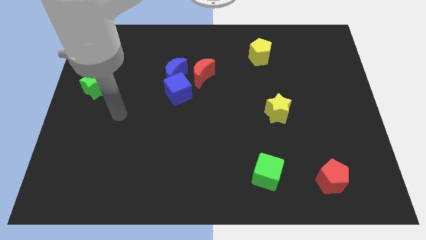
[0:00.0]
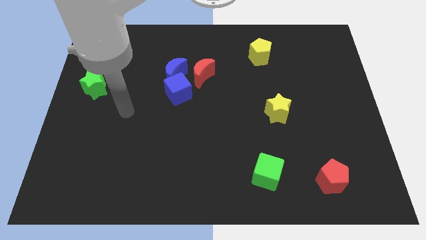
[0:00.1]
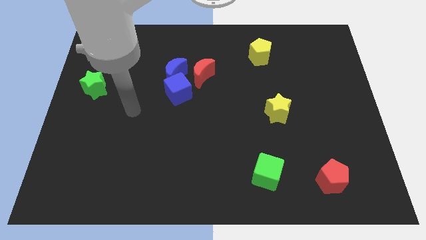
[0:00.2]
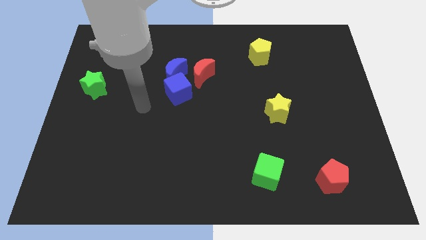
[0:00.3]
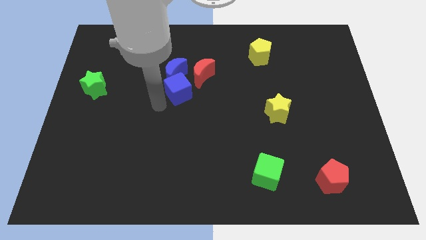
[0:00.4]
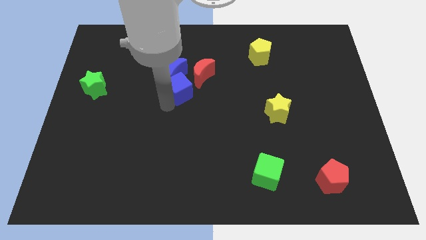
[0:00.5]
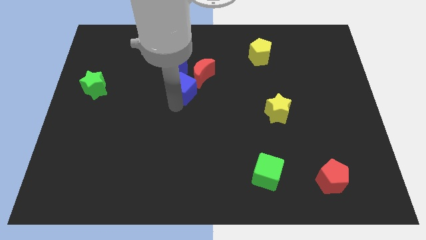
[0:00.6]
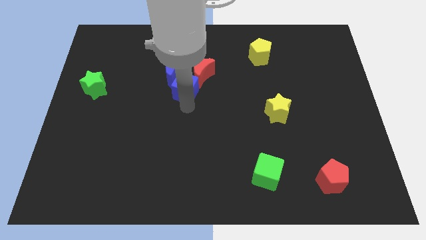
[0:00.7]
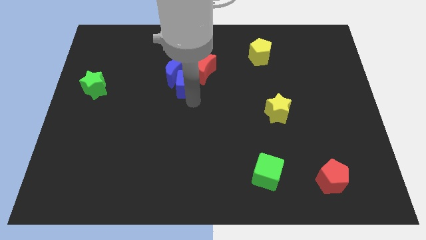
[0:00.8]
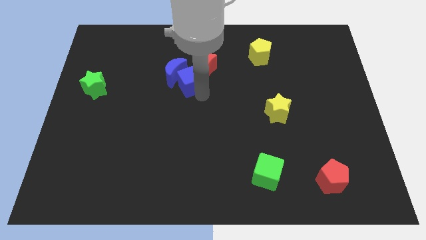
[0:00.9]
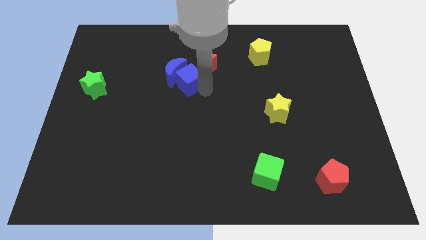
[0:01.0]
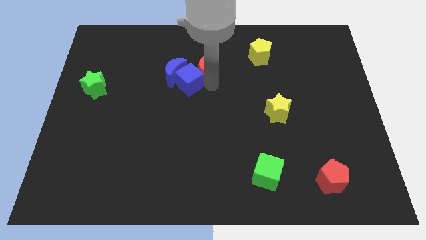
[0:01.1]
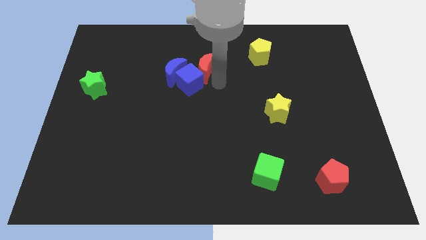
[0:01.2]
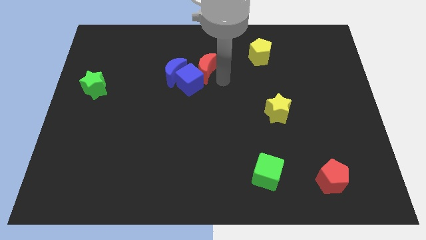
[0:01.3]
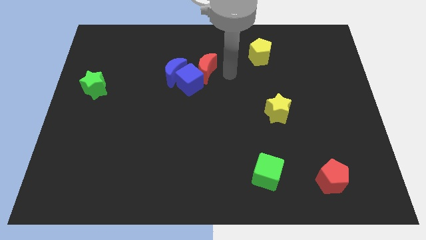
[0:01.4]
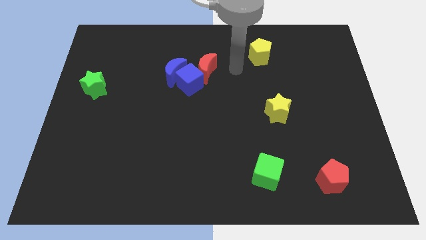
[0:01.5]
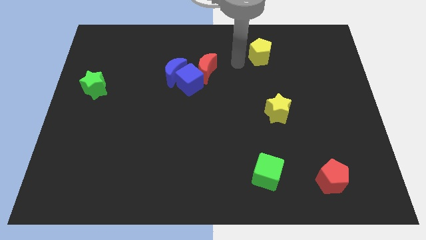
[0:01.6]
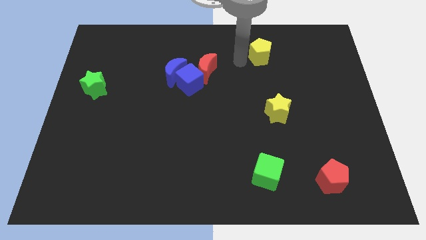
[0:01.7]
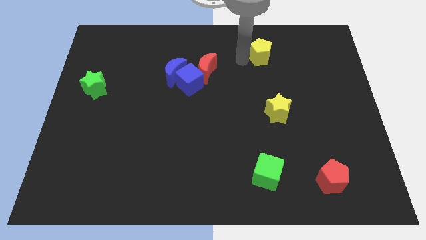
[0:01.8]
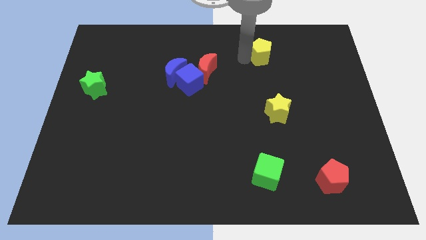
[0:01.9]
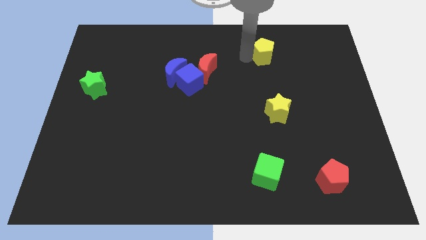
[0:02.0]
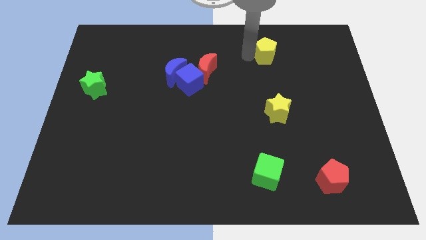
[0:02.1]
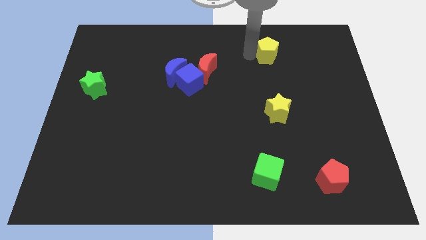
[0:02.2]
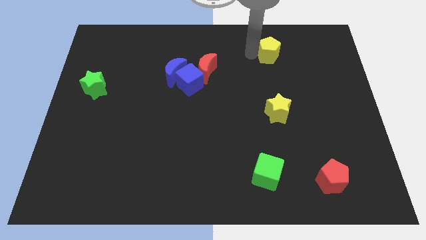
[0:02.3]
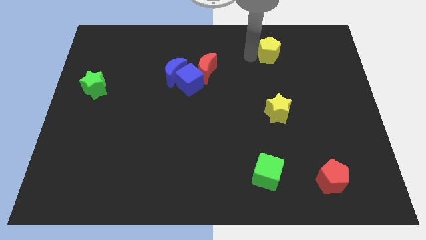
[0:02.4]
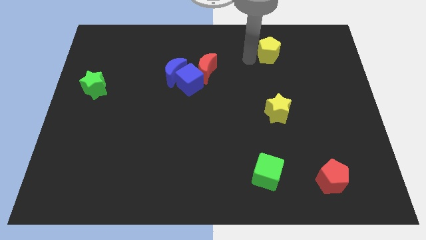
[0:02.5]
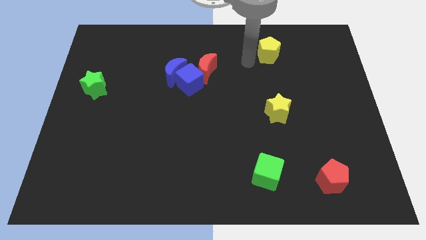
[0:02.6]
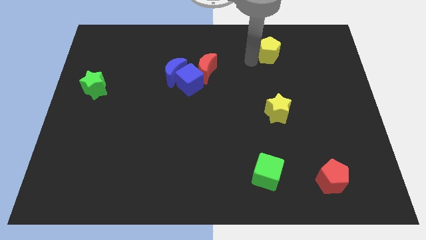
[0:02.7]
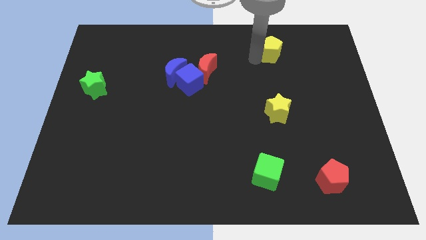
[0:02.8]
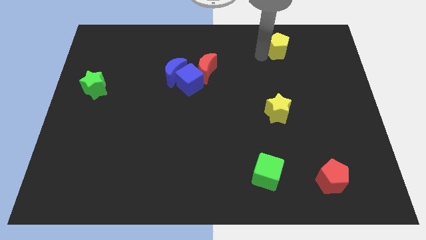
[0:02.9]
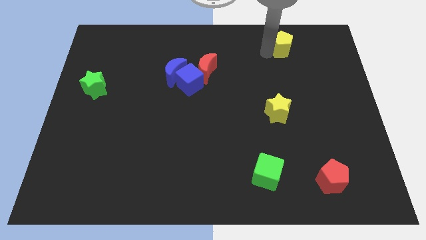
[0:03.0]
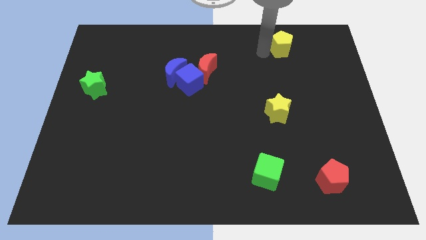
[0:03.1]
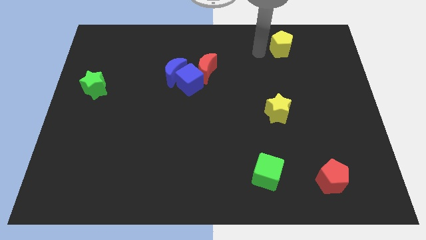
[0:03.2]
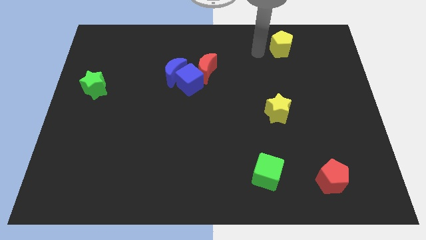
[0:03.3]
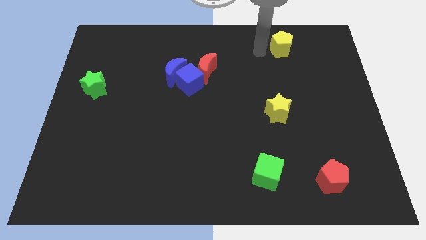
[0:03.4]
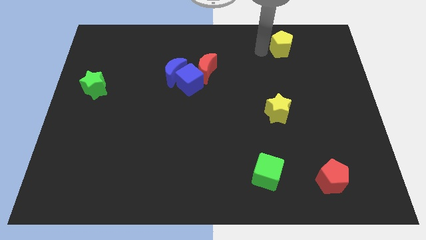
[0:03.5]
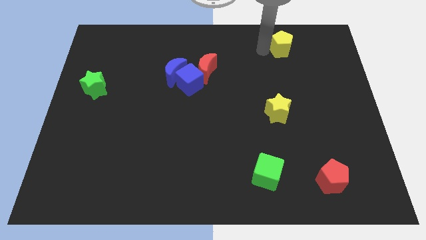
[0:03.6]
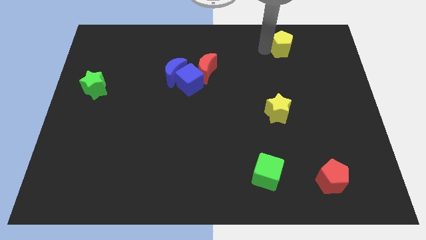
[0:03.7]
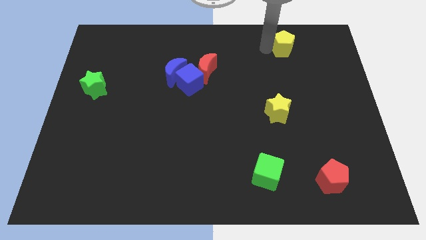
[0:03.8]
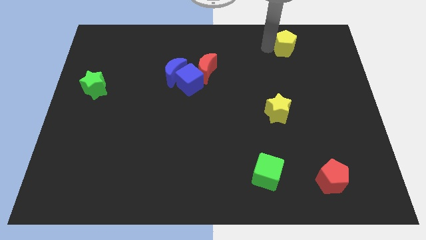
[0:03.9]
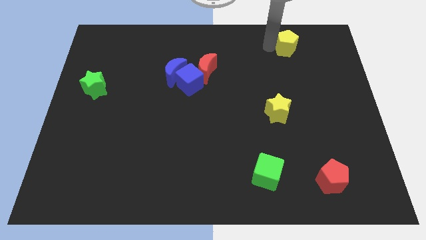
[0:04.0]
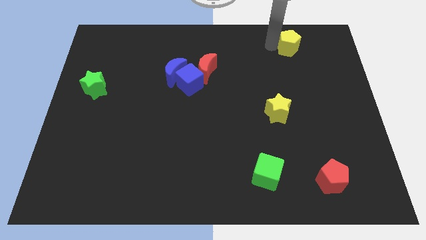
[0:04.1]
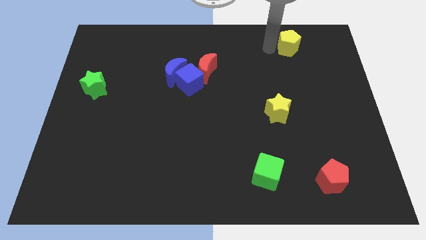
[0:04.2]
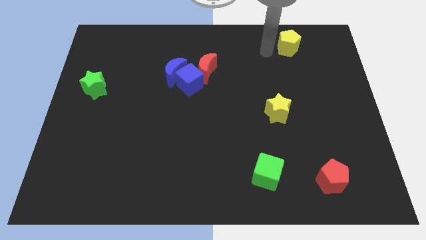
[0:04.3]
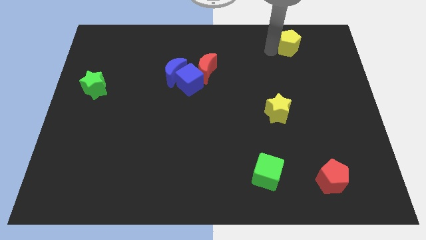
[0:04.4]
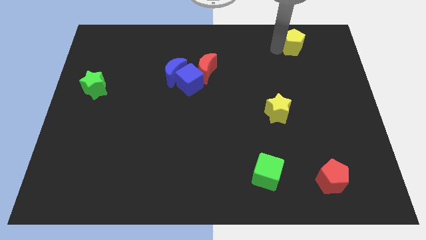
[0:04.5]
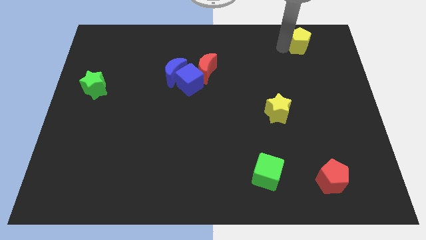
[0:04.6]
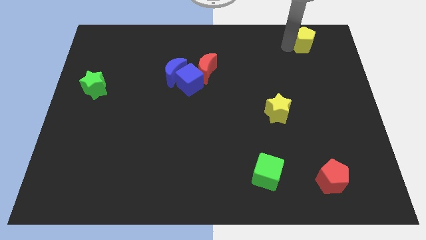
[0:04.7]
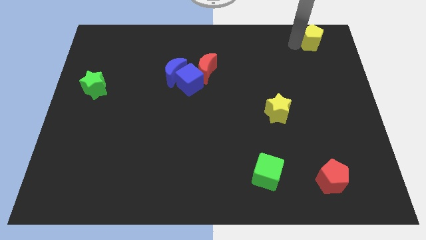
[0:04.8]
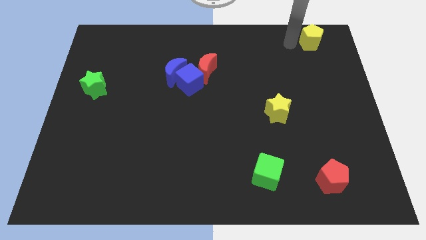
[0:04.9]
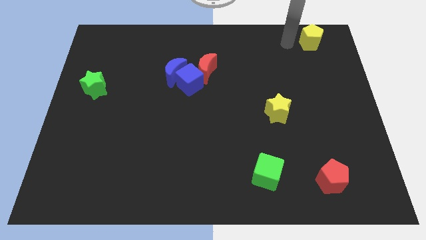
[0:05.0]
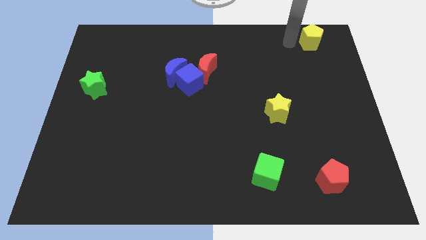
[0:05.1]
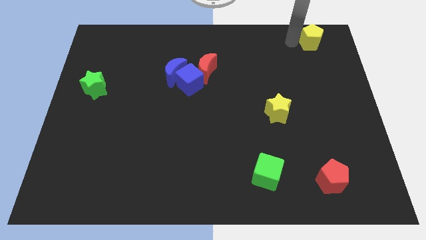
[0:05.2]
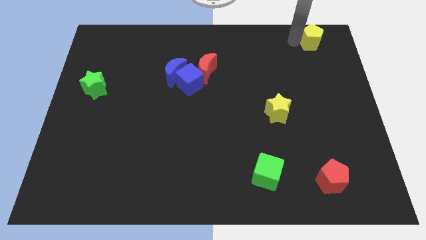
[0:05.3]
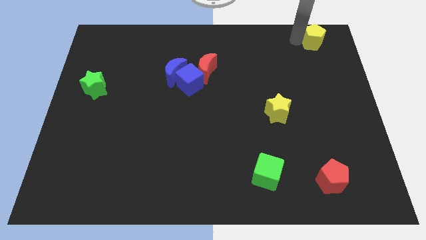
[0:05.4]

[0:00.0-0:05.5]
slide the yellow pentagon to the top right corner

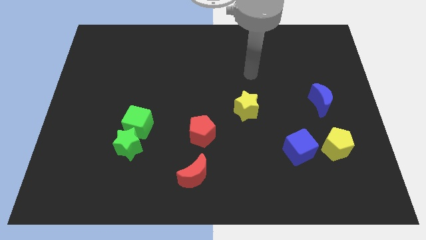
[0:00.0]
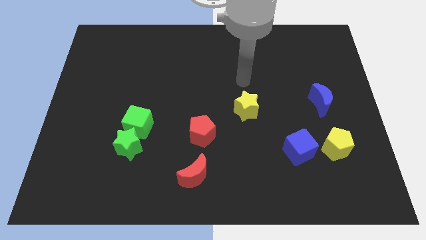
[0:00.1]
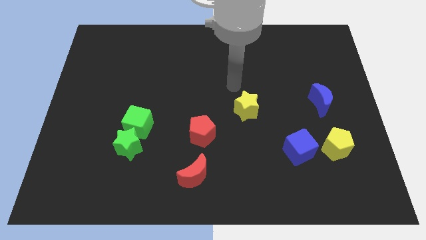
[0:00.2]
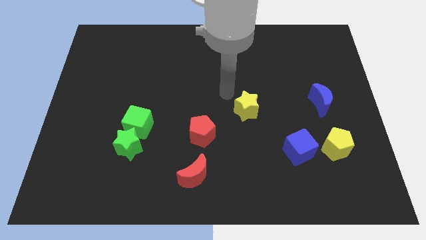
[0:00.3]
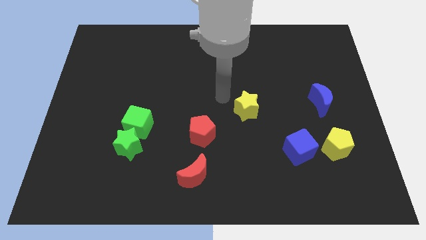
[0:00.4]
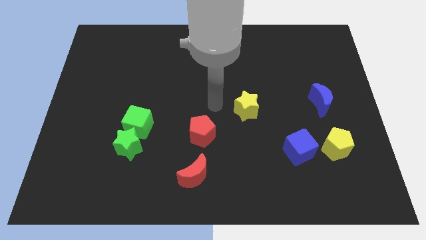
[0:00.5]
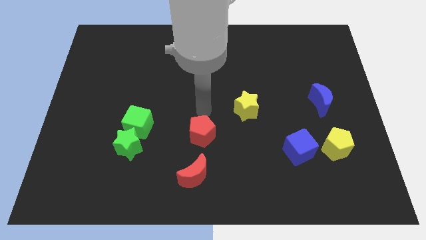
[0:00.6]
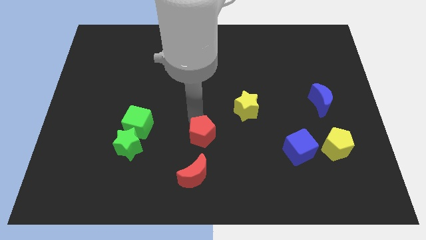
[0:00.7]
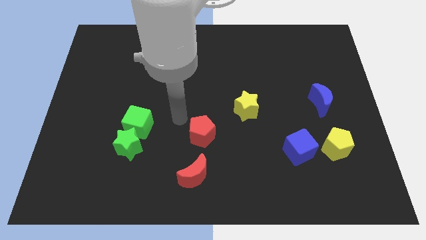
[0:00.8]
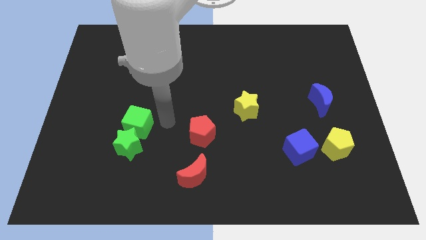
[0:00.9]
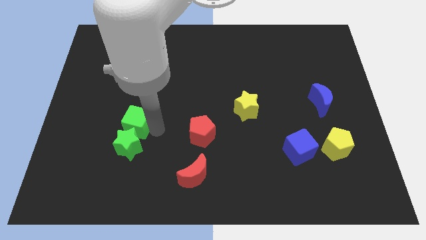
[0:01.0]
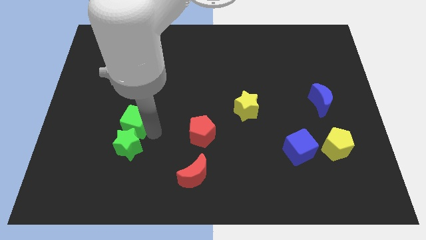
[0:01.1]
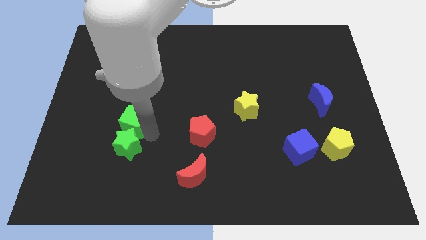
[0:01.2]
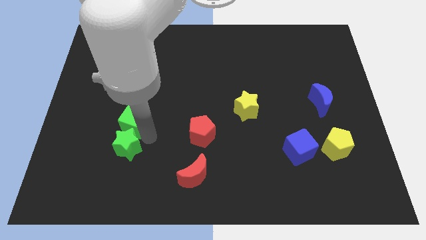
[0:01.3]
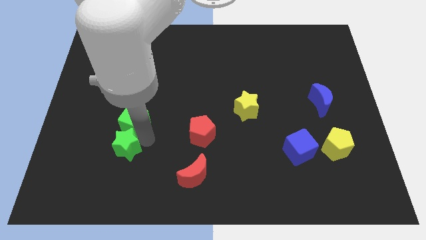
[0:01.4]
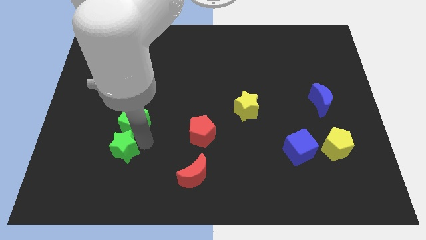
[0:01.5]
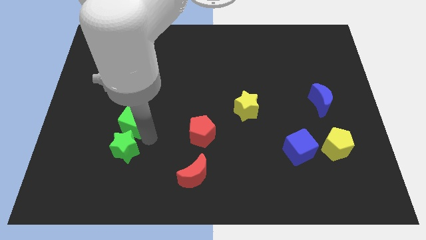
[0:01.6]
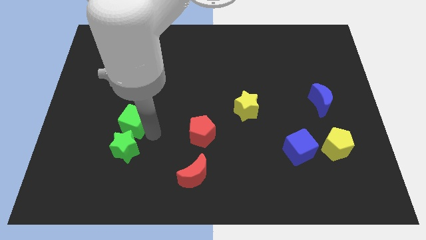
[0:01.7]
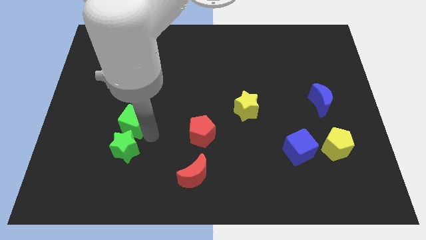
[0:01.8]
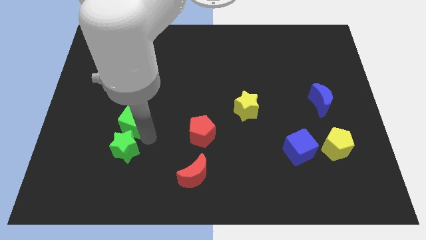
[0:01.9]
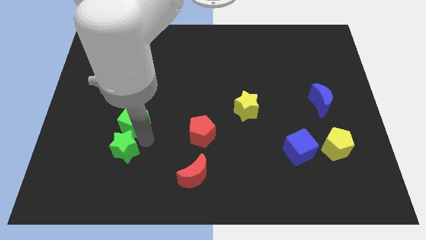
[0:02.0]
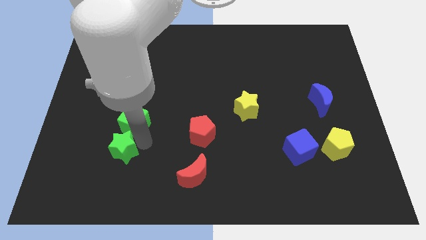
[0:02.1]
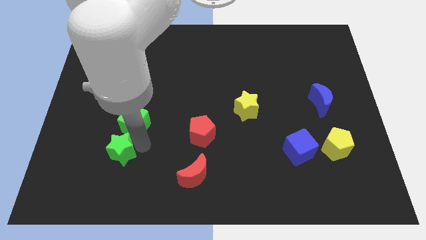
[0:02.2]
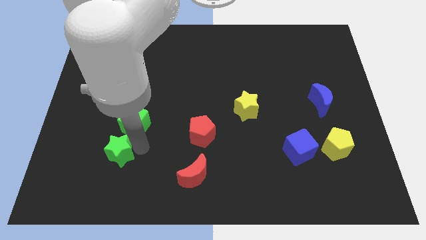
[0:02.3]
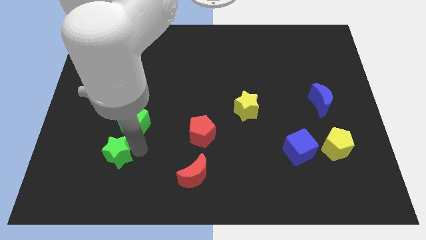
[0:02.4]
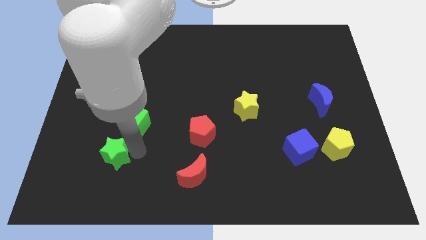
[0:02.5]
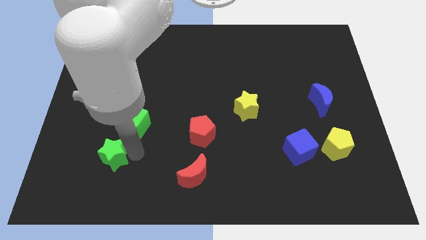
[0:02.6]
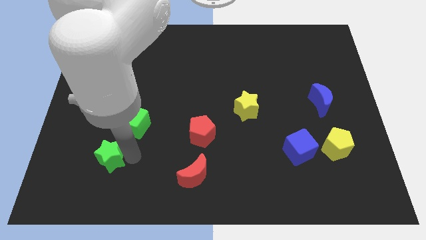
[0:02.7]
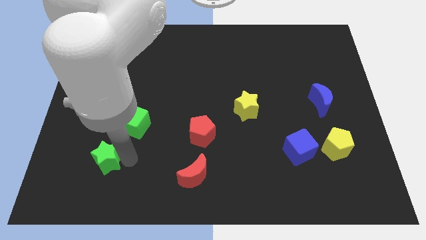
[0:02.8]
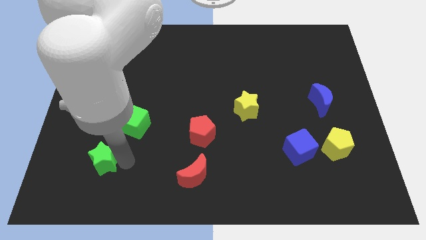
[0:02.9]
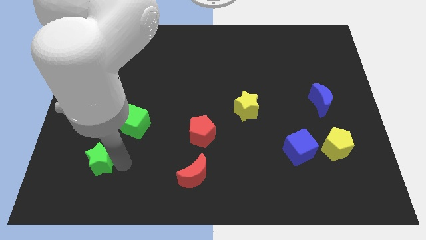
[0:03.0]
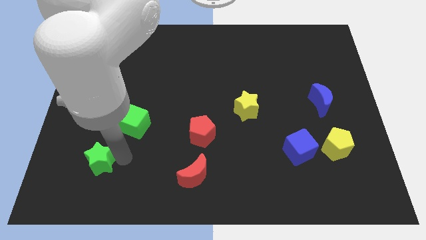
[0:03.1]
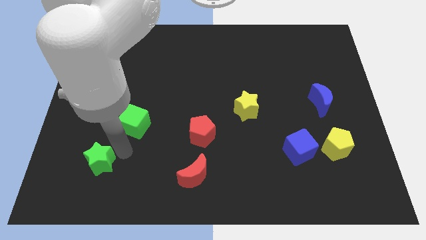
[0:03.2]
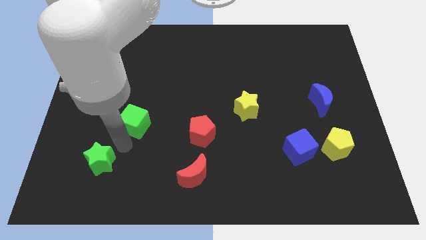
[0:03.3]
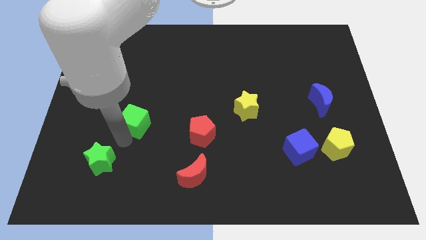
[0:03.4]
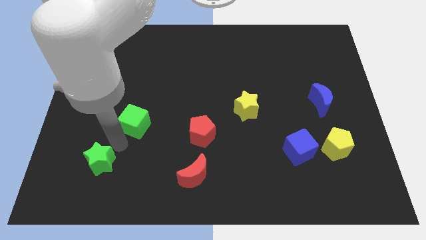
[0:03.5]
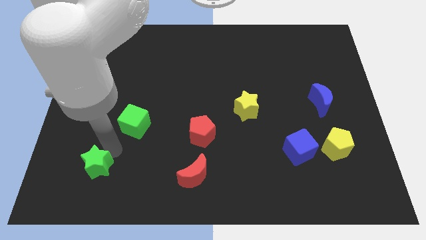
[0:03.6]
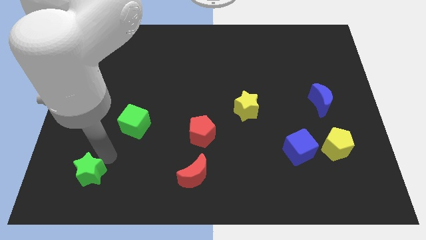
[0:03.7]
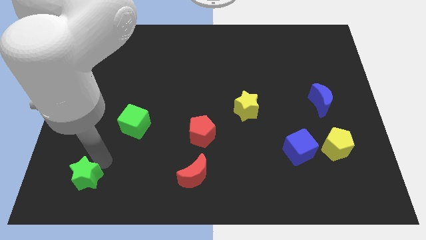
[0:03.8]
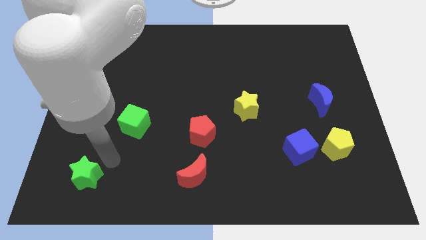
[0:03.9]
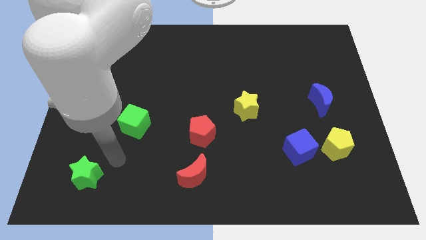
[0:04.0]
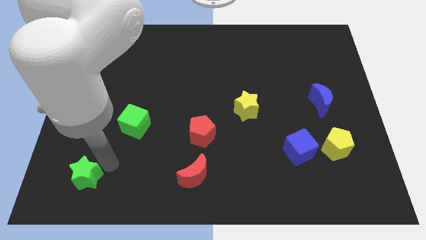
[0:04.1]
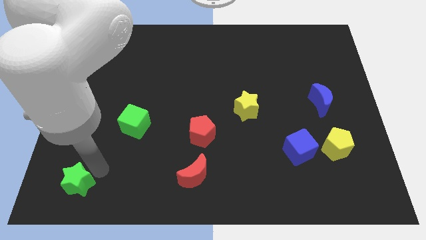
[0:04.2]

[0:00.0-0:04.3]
move the green star to the bottom left corner
